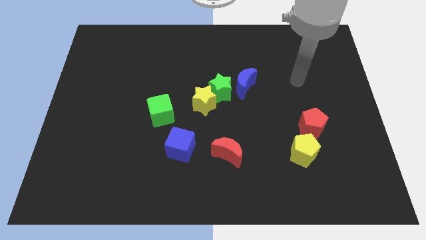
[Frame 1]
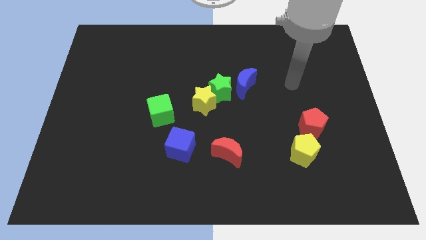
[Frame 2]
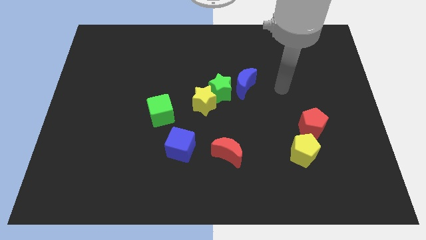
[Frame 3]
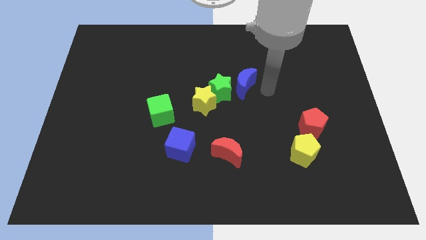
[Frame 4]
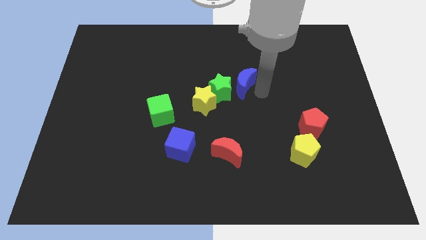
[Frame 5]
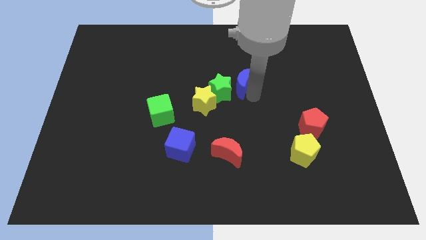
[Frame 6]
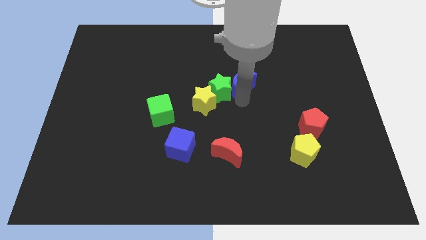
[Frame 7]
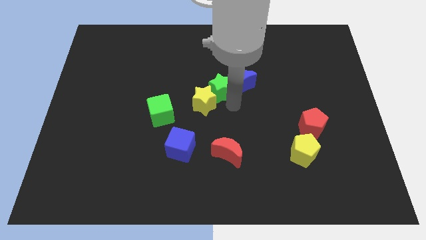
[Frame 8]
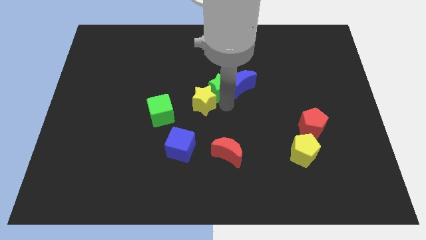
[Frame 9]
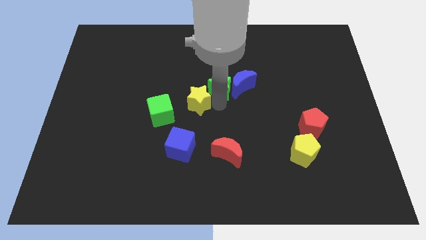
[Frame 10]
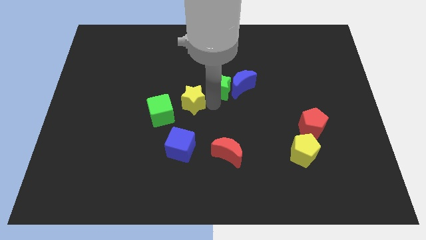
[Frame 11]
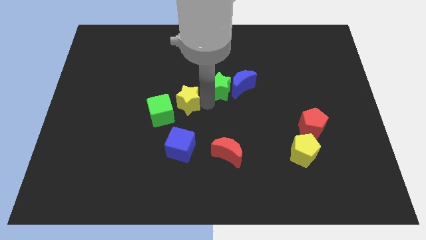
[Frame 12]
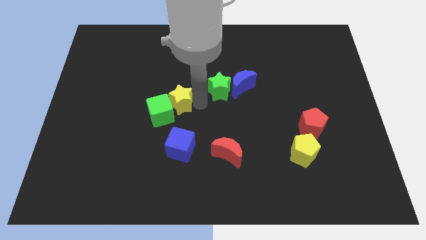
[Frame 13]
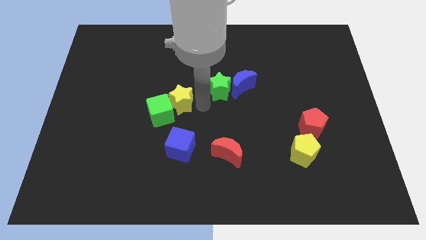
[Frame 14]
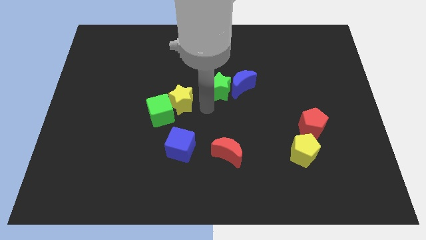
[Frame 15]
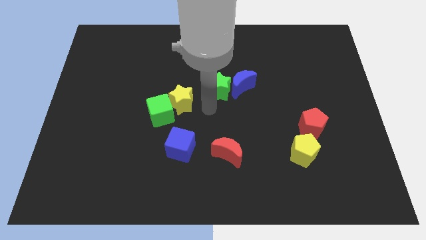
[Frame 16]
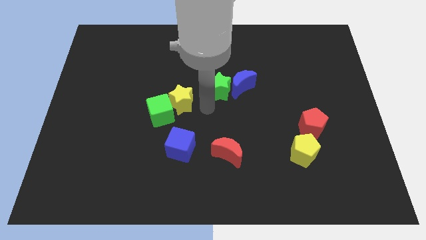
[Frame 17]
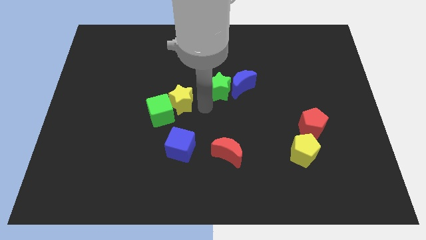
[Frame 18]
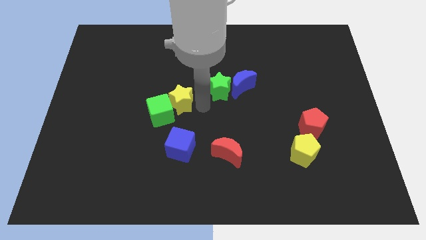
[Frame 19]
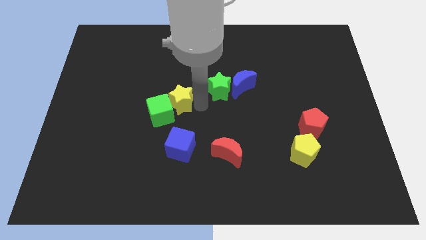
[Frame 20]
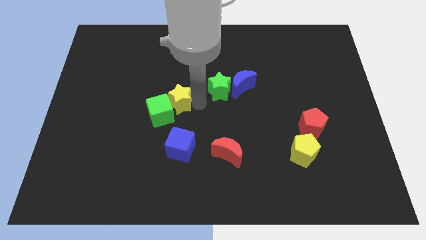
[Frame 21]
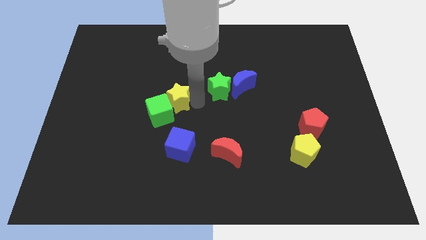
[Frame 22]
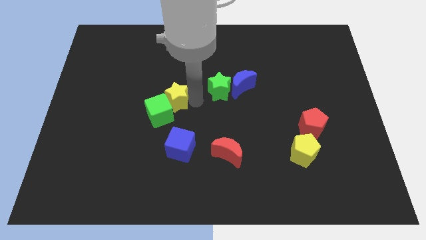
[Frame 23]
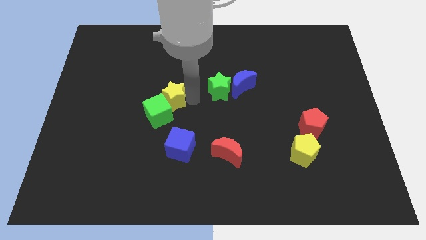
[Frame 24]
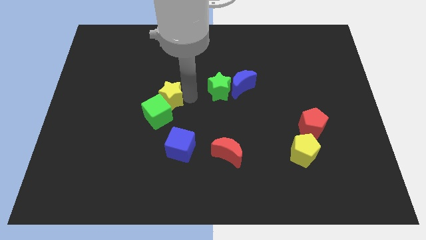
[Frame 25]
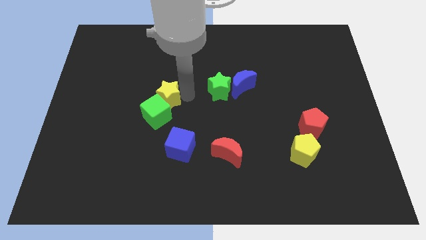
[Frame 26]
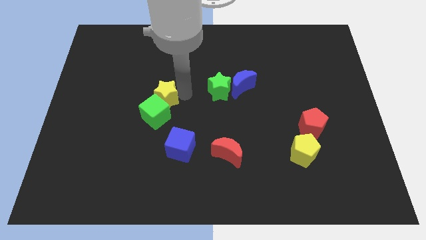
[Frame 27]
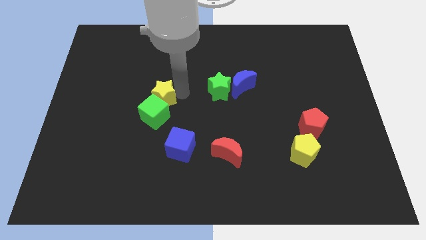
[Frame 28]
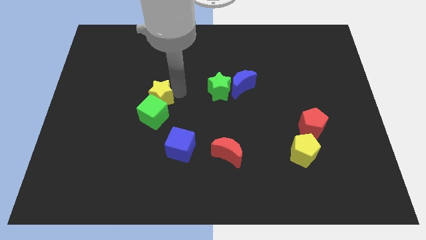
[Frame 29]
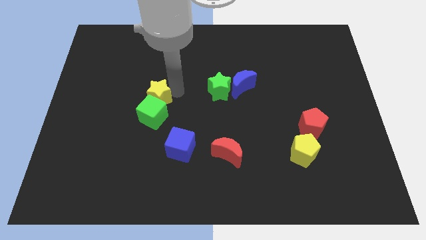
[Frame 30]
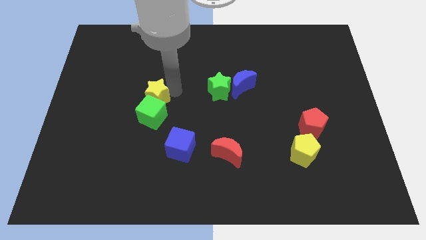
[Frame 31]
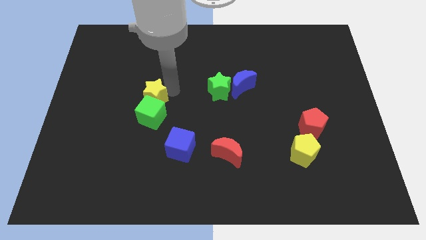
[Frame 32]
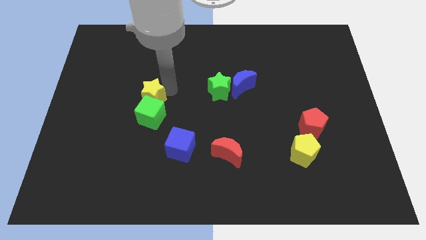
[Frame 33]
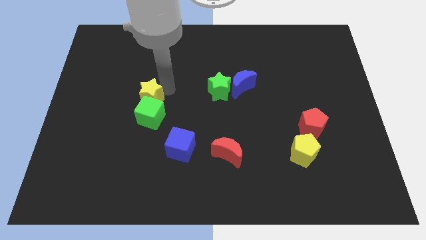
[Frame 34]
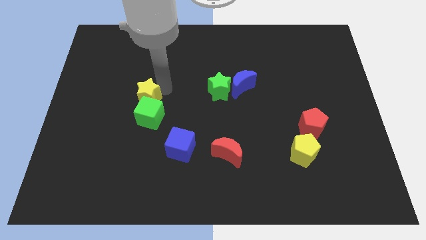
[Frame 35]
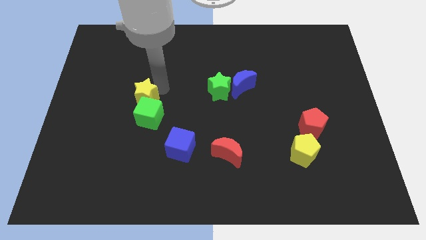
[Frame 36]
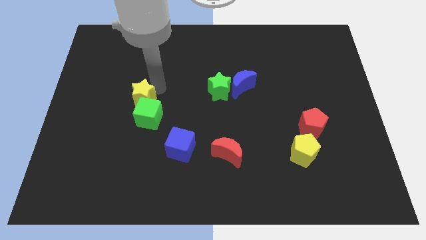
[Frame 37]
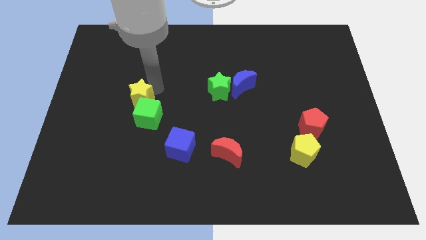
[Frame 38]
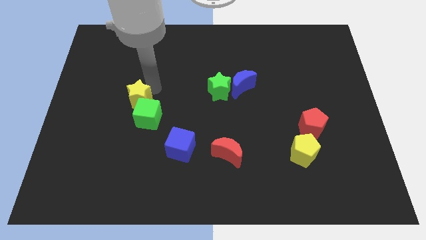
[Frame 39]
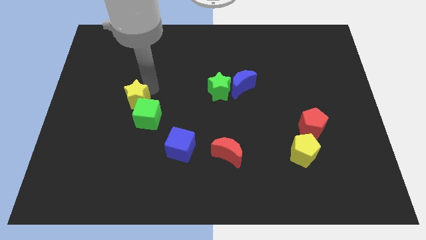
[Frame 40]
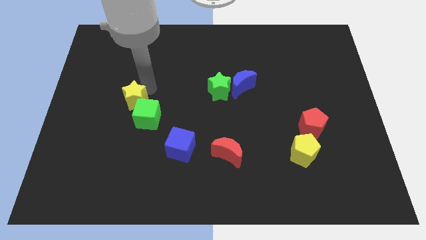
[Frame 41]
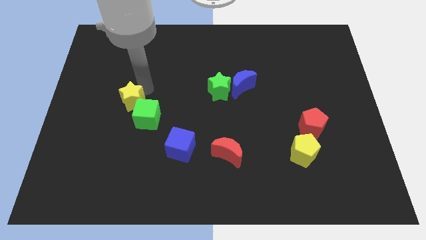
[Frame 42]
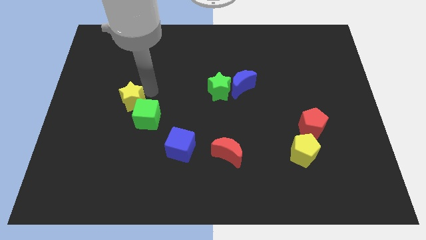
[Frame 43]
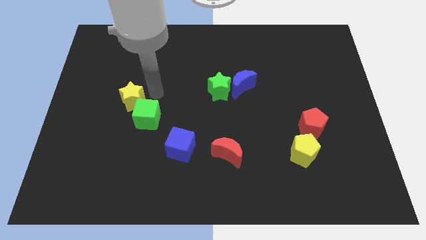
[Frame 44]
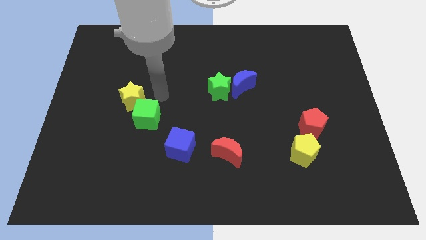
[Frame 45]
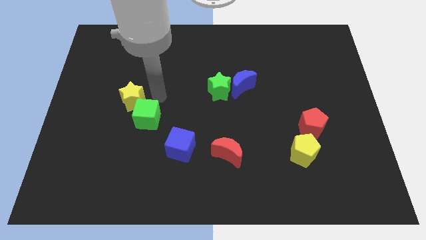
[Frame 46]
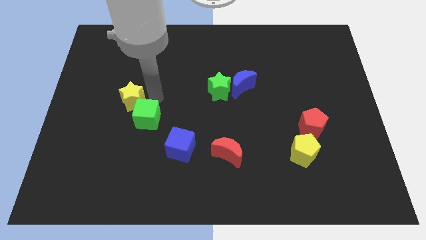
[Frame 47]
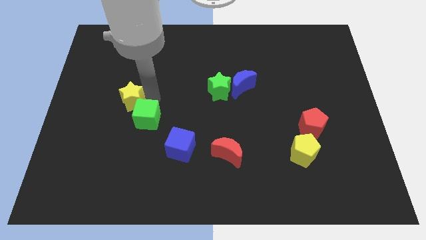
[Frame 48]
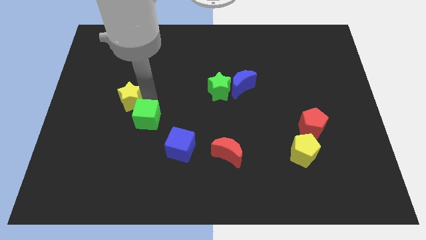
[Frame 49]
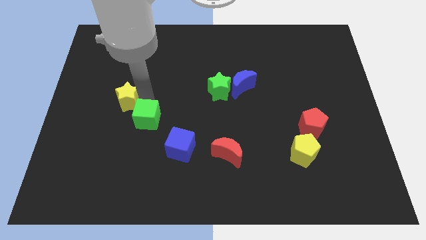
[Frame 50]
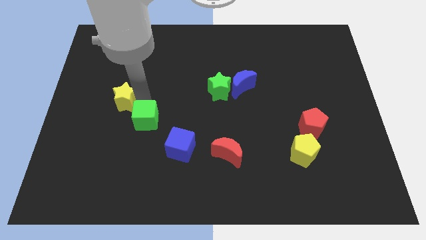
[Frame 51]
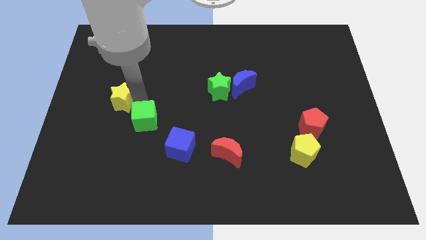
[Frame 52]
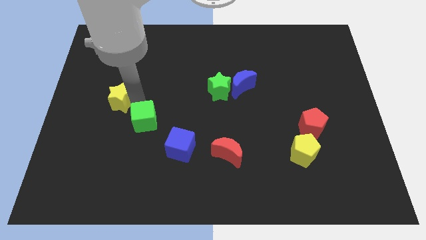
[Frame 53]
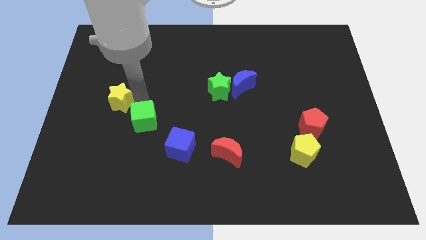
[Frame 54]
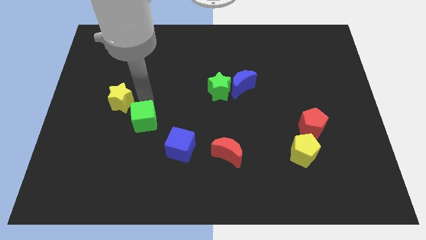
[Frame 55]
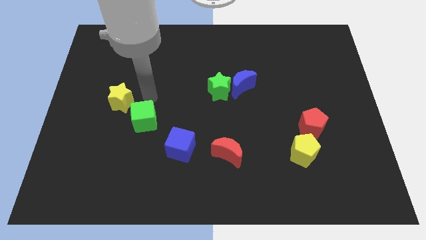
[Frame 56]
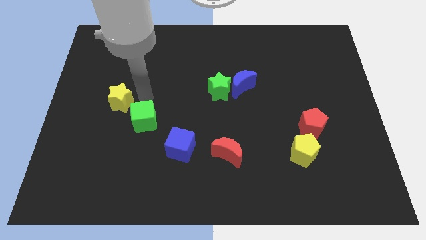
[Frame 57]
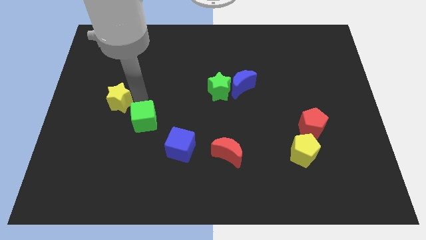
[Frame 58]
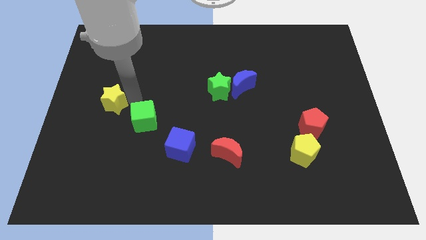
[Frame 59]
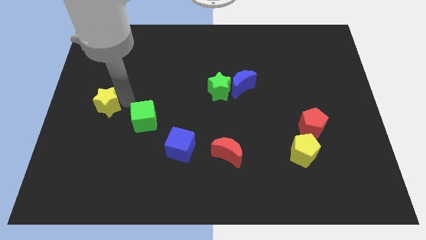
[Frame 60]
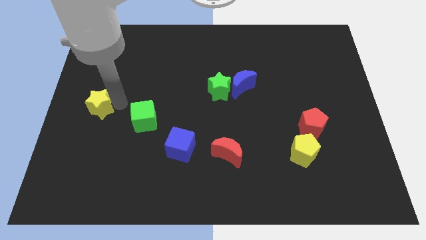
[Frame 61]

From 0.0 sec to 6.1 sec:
move the yellow star to the center left

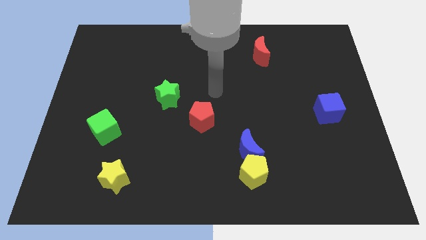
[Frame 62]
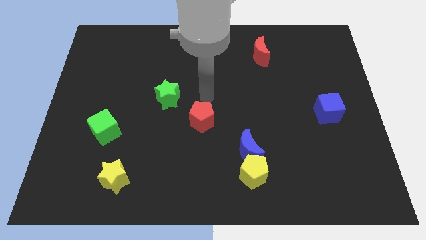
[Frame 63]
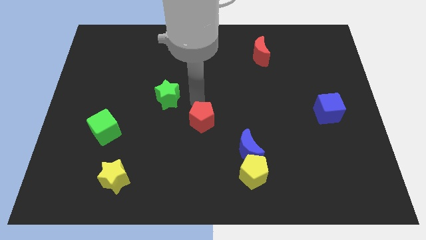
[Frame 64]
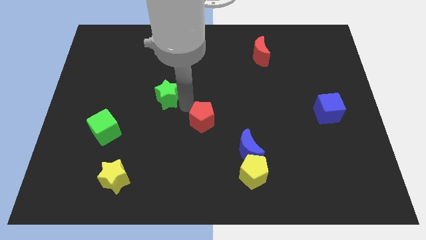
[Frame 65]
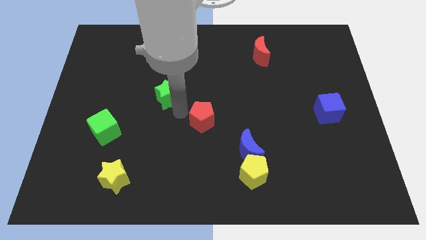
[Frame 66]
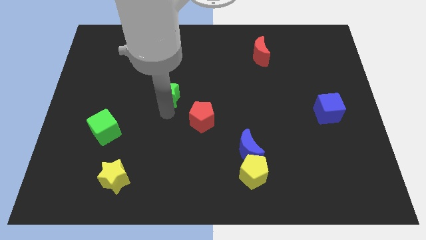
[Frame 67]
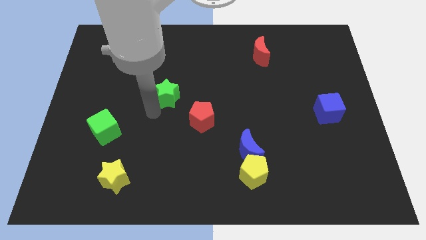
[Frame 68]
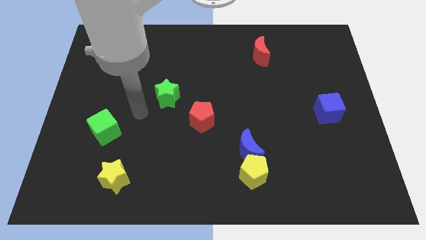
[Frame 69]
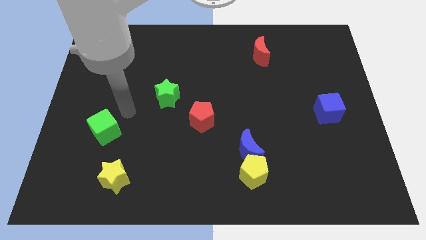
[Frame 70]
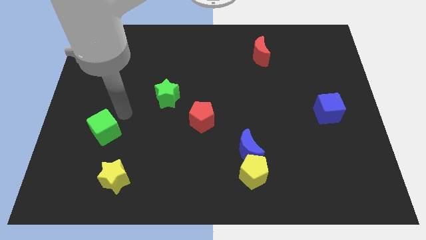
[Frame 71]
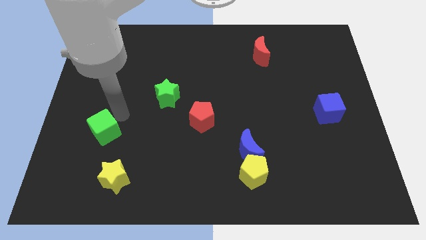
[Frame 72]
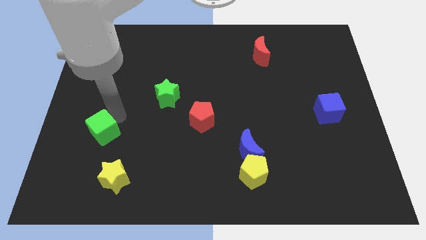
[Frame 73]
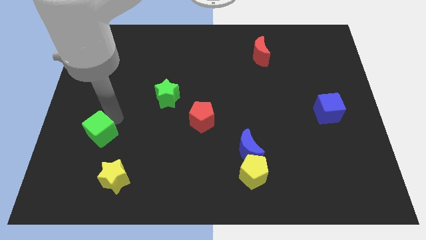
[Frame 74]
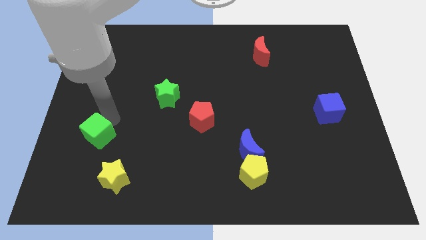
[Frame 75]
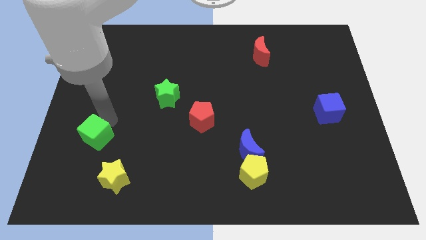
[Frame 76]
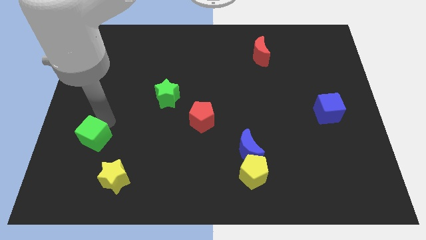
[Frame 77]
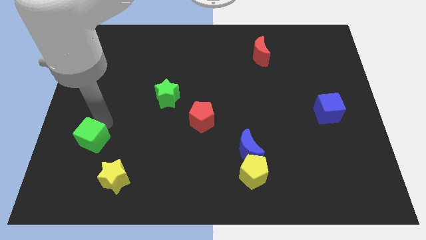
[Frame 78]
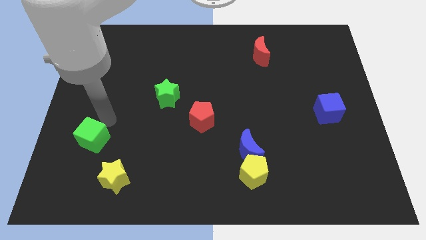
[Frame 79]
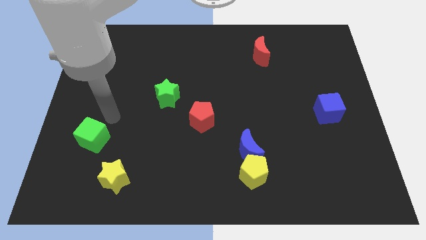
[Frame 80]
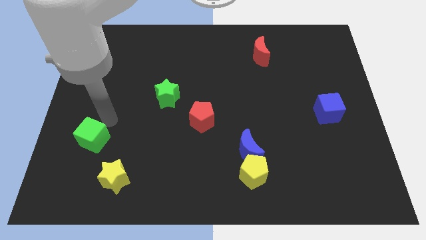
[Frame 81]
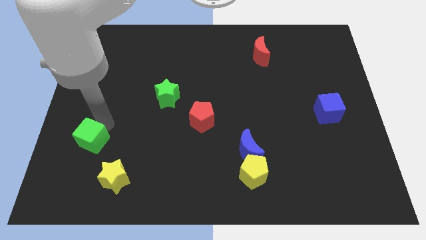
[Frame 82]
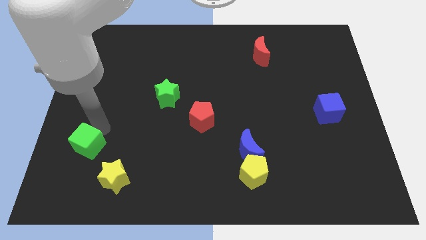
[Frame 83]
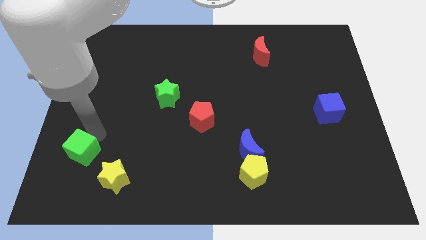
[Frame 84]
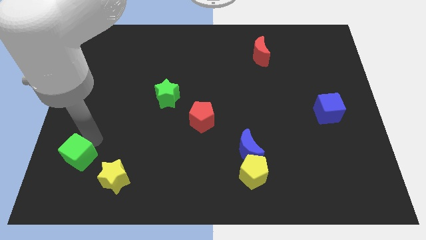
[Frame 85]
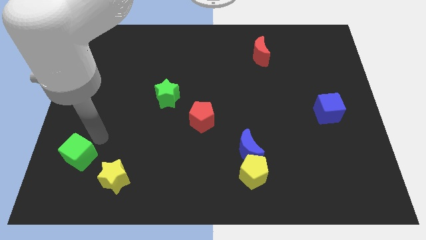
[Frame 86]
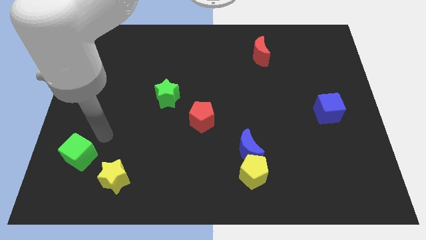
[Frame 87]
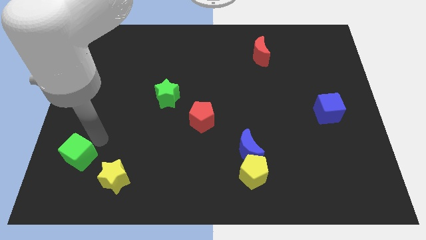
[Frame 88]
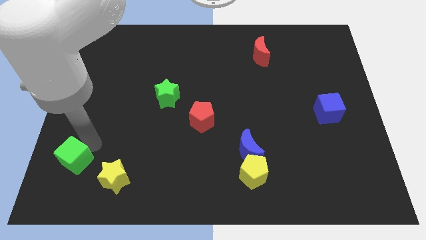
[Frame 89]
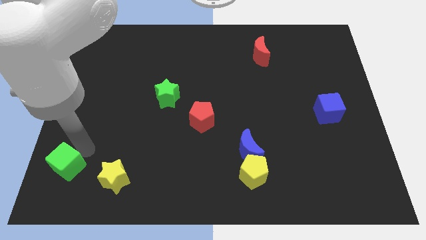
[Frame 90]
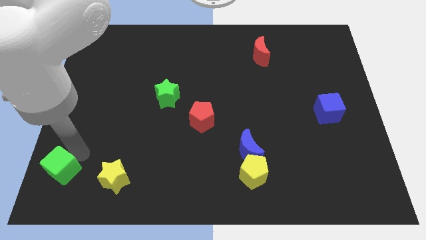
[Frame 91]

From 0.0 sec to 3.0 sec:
put the green cube to the bottom left corner
